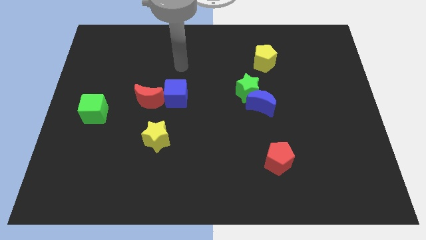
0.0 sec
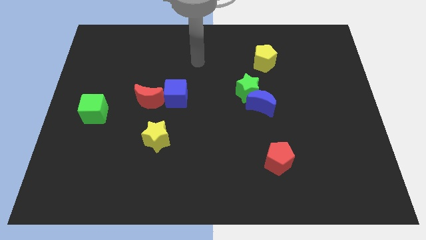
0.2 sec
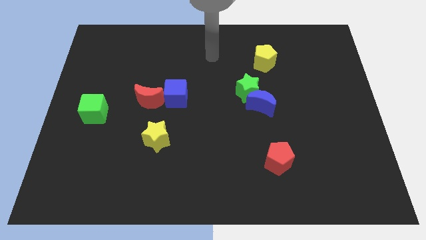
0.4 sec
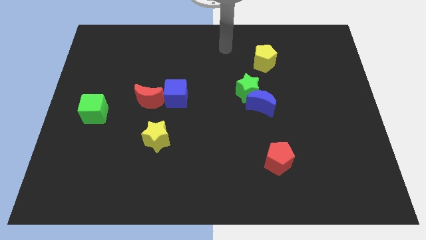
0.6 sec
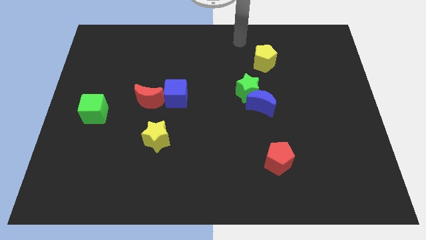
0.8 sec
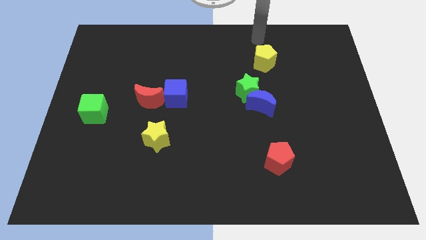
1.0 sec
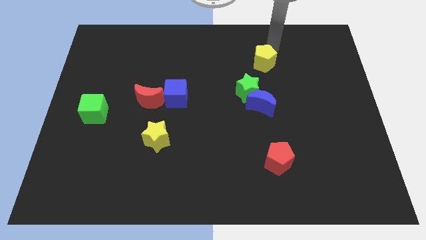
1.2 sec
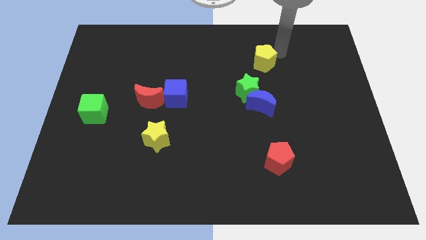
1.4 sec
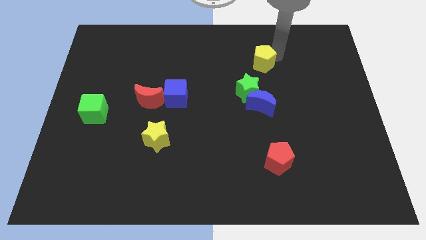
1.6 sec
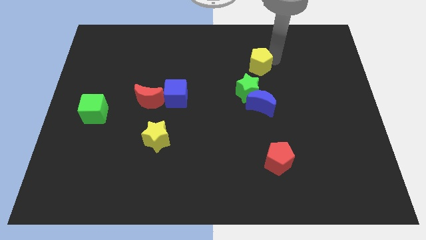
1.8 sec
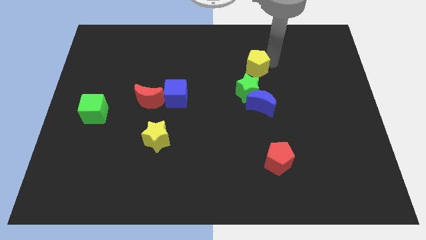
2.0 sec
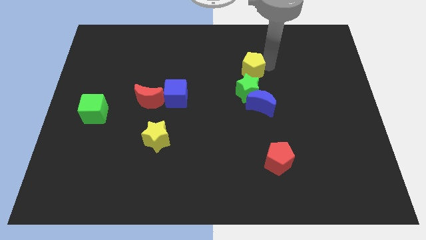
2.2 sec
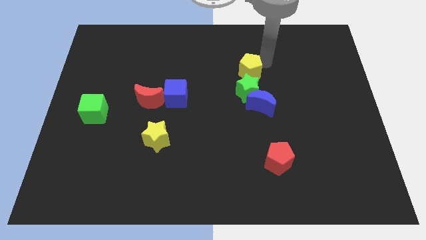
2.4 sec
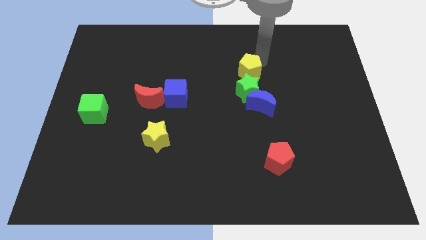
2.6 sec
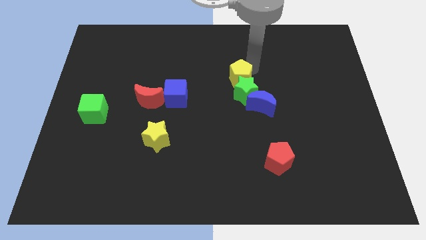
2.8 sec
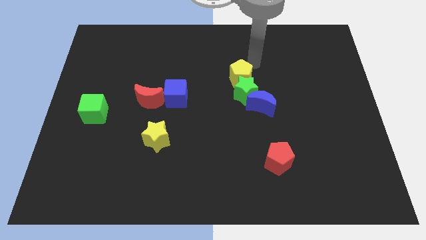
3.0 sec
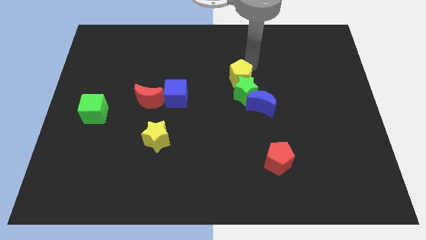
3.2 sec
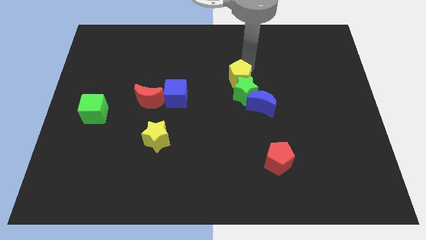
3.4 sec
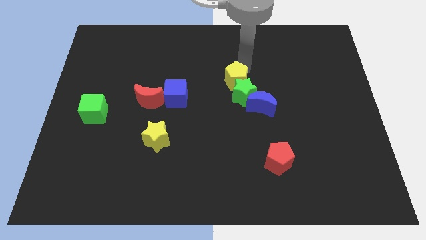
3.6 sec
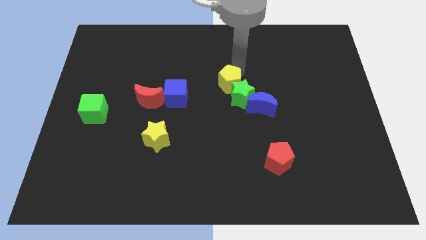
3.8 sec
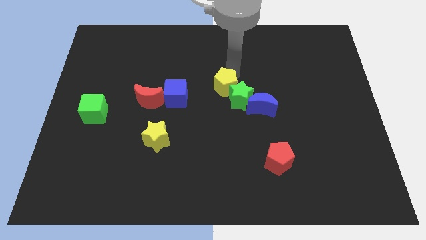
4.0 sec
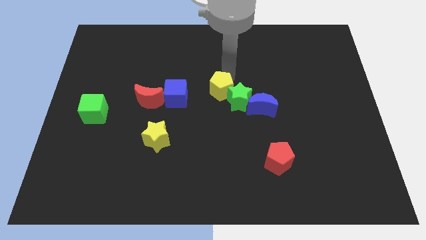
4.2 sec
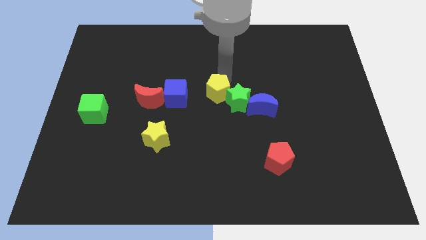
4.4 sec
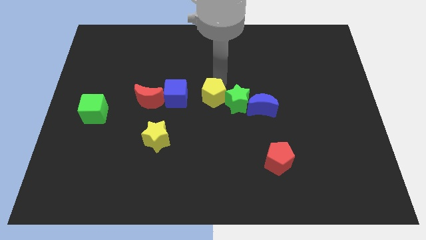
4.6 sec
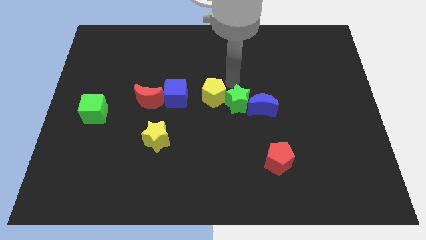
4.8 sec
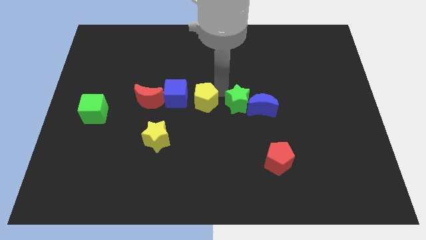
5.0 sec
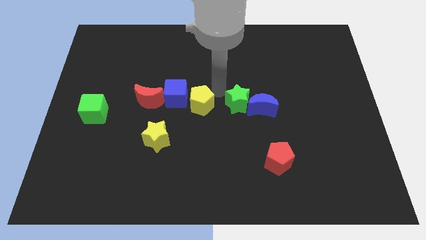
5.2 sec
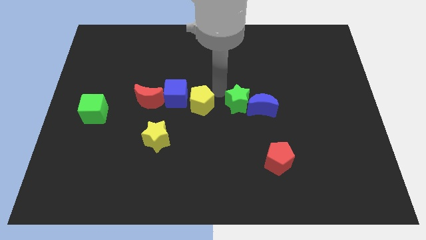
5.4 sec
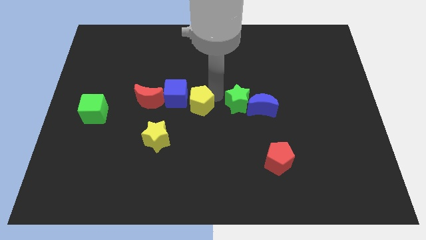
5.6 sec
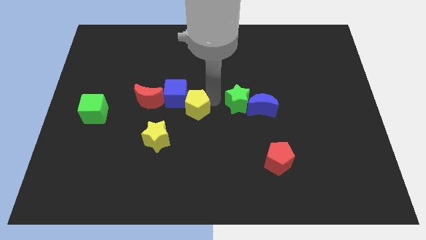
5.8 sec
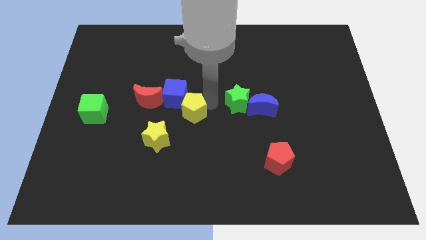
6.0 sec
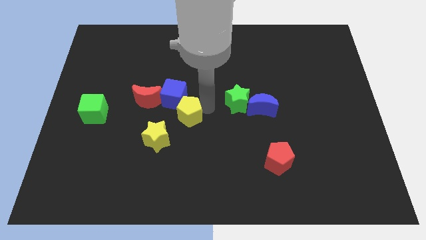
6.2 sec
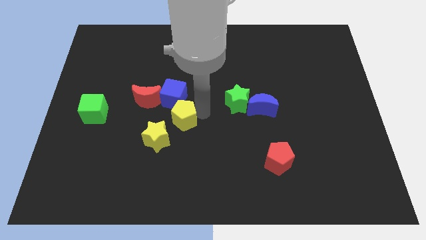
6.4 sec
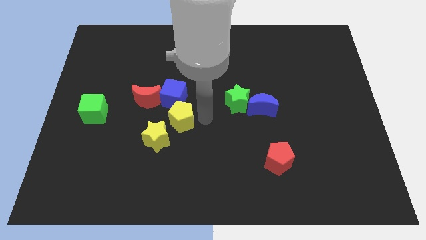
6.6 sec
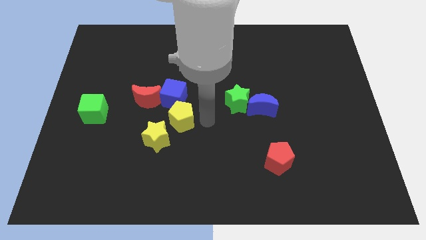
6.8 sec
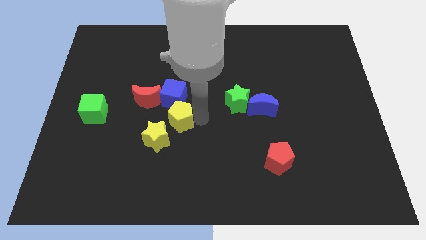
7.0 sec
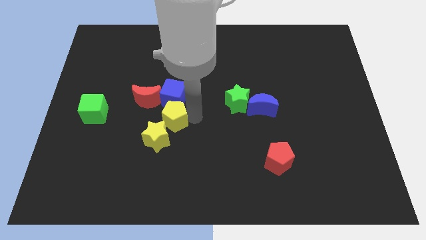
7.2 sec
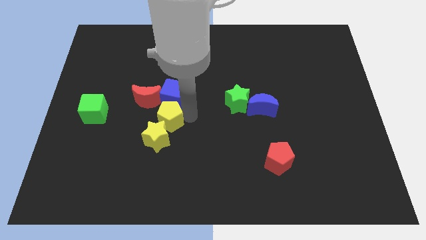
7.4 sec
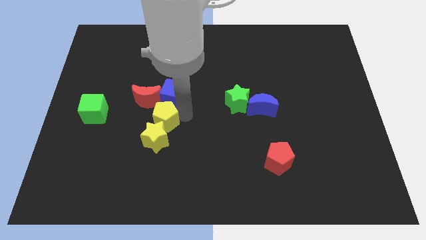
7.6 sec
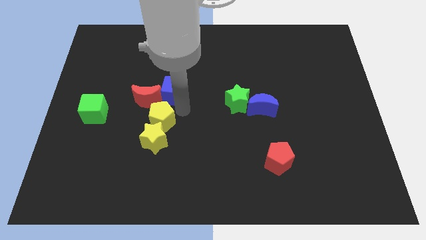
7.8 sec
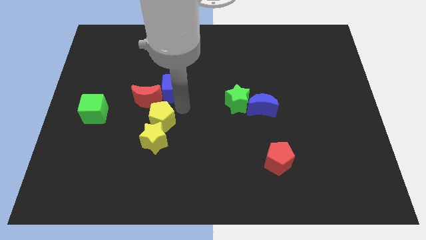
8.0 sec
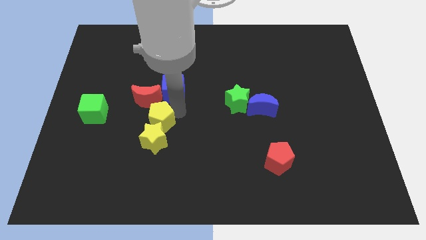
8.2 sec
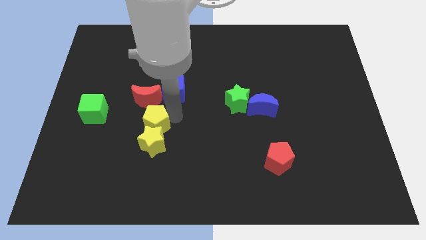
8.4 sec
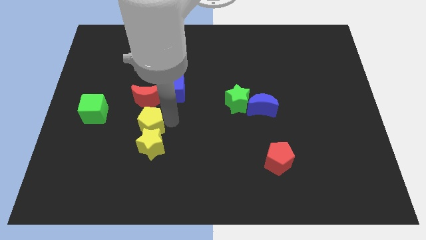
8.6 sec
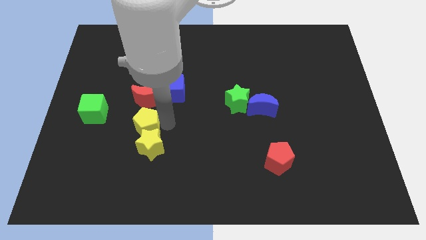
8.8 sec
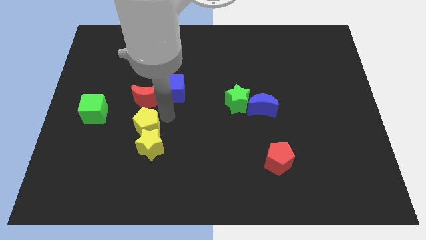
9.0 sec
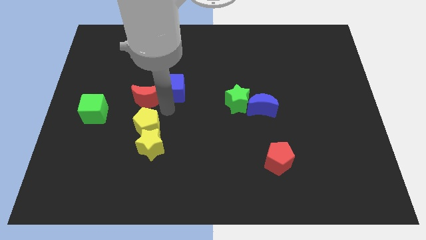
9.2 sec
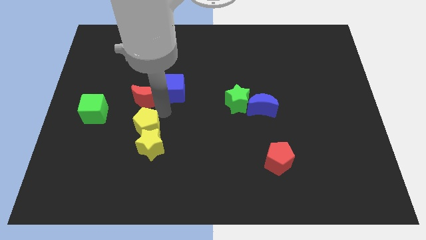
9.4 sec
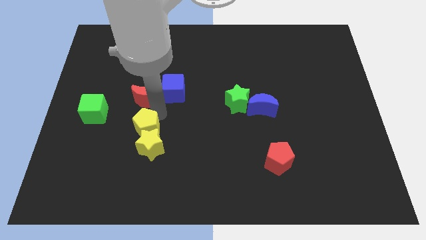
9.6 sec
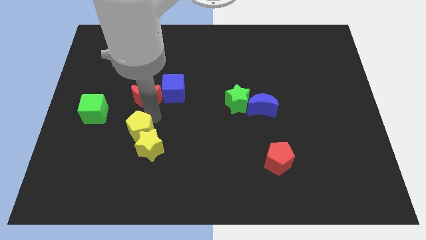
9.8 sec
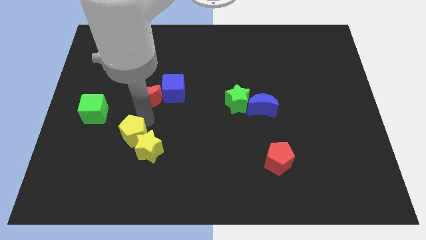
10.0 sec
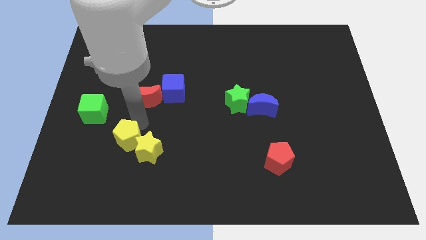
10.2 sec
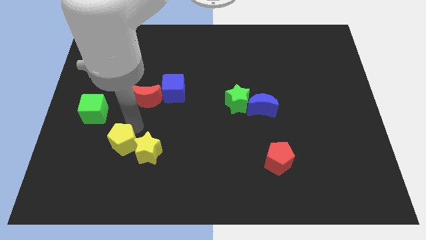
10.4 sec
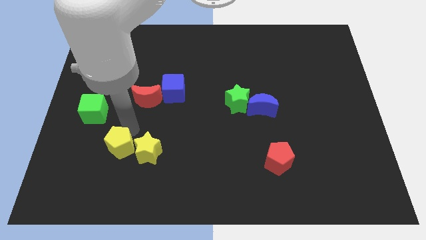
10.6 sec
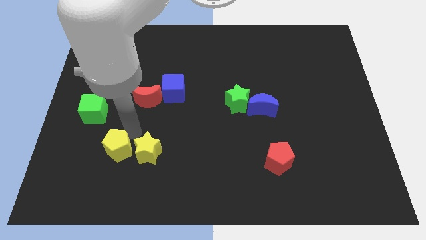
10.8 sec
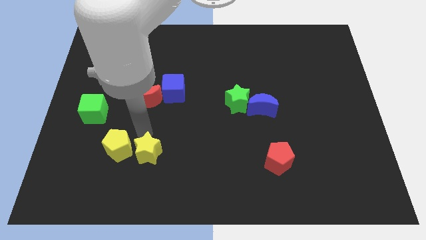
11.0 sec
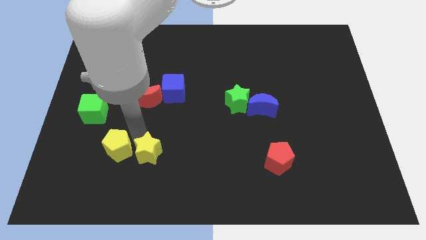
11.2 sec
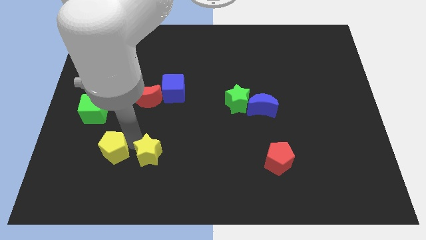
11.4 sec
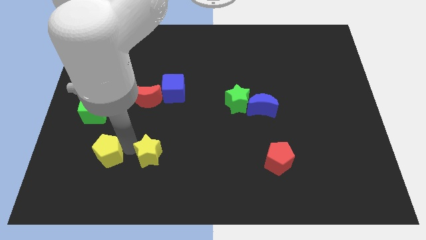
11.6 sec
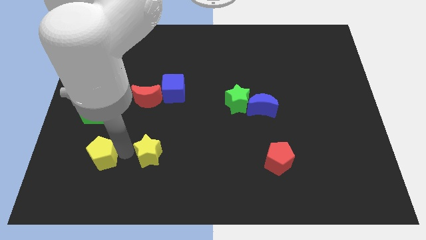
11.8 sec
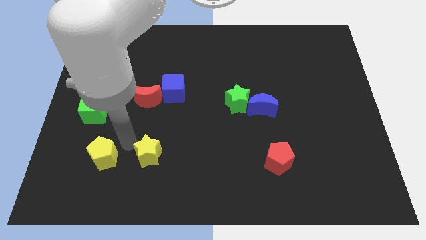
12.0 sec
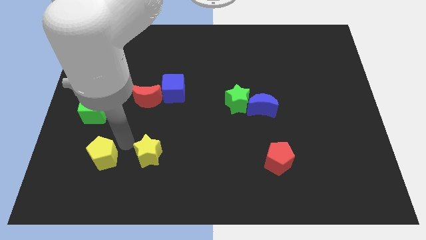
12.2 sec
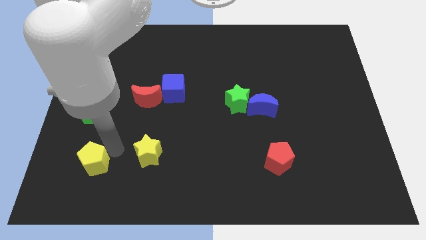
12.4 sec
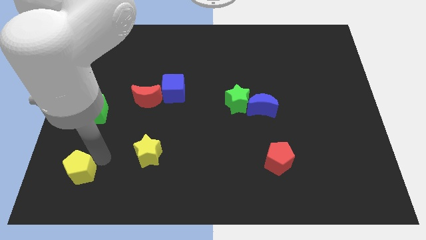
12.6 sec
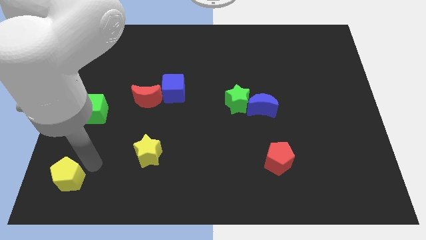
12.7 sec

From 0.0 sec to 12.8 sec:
put the yellow pentagon to the bottom left corner
